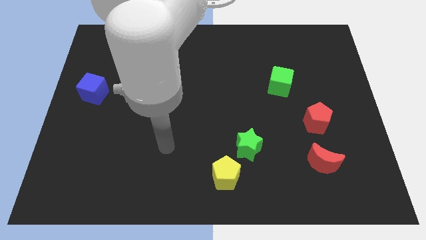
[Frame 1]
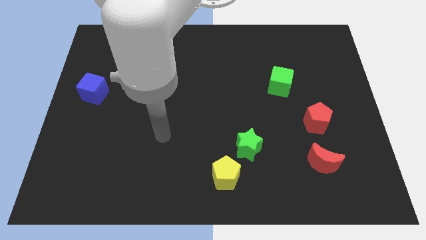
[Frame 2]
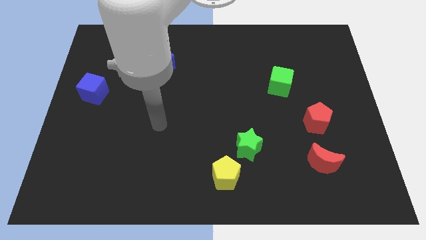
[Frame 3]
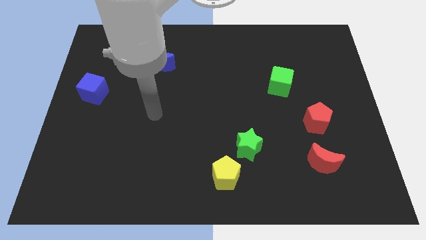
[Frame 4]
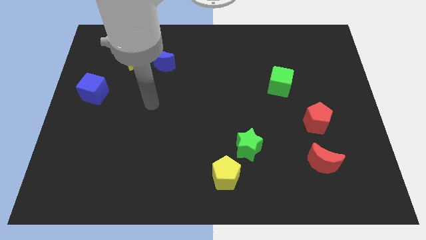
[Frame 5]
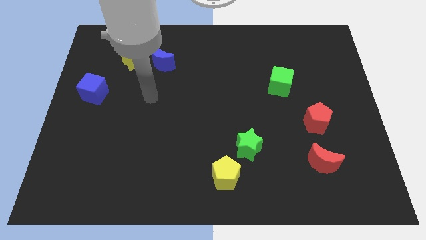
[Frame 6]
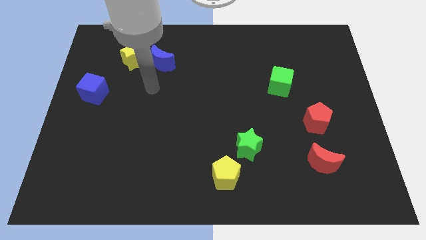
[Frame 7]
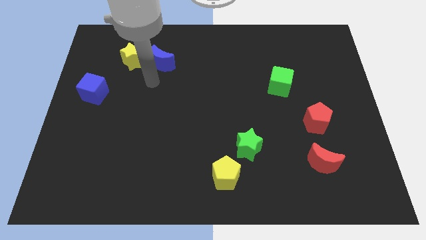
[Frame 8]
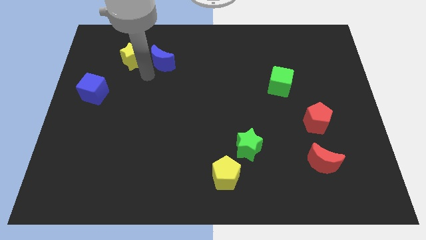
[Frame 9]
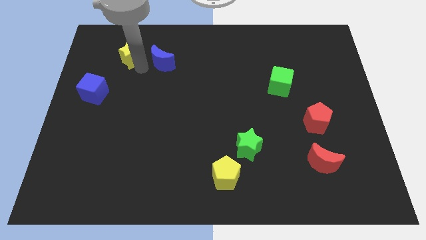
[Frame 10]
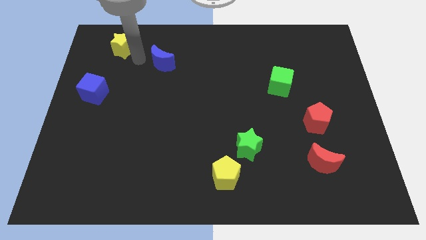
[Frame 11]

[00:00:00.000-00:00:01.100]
move the blue moon away from the yellow star

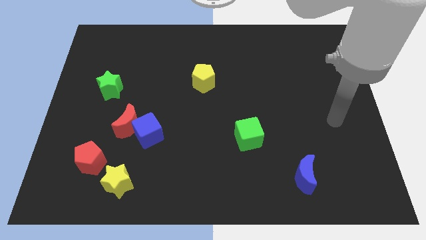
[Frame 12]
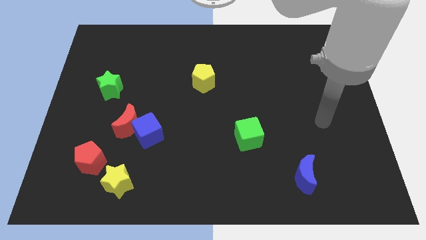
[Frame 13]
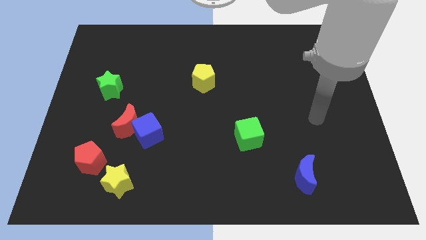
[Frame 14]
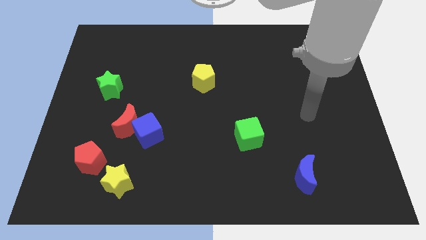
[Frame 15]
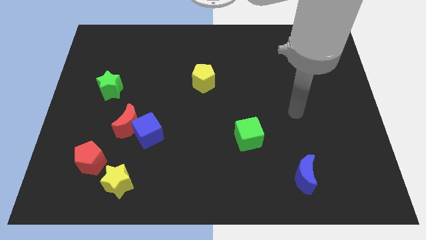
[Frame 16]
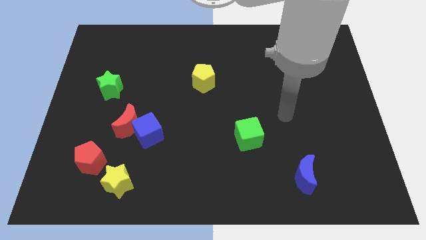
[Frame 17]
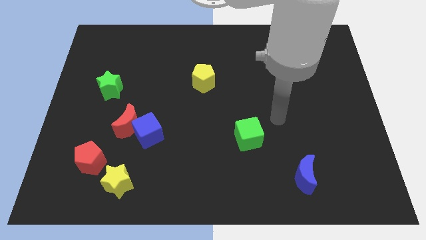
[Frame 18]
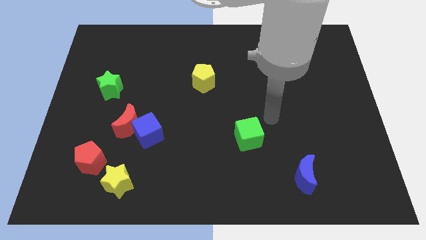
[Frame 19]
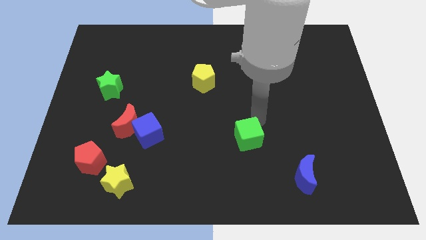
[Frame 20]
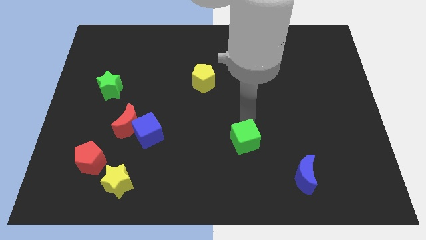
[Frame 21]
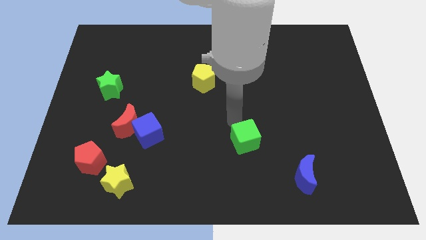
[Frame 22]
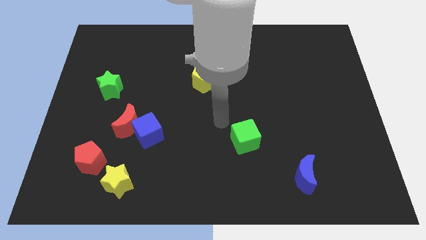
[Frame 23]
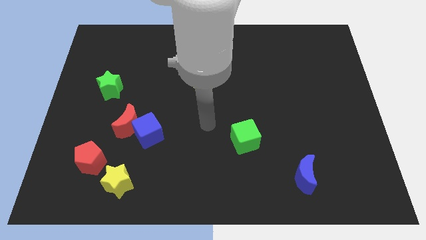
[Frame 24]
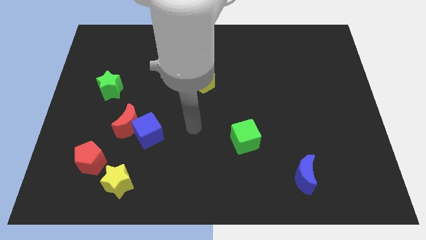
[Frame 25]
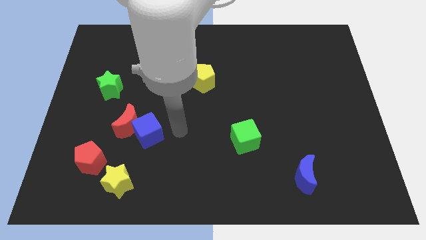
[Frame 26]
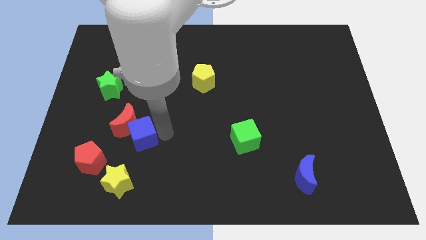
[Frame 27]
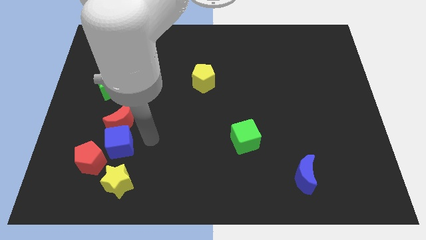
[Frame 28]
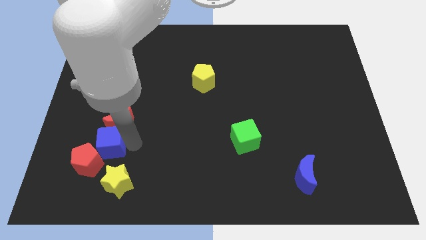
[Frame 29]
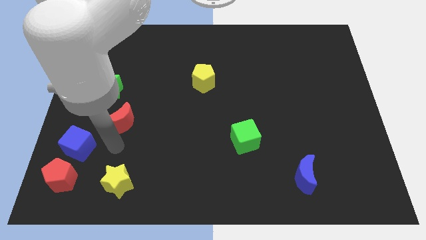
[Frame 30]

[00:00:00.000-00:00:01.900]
move the red moon away from the blue cube

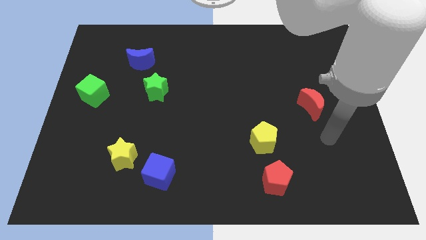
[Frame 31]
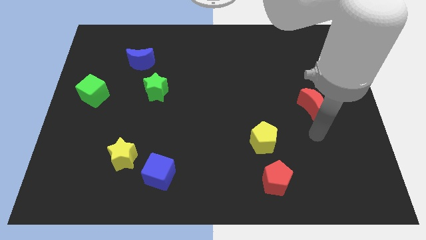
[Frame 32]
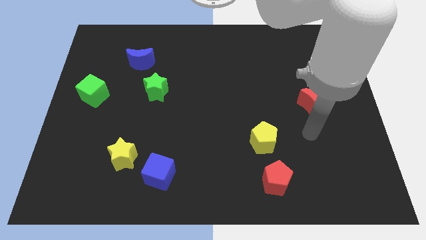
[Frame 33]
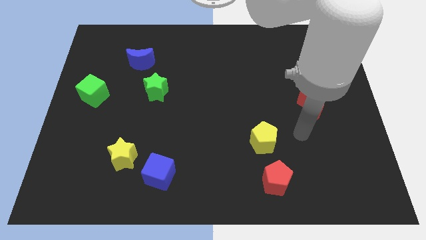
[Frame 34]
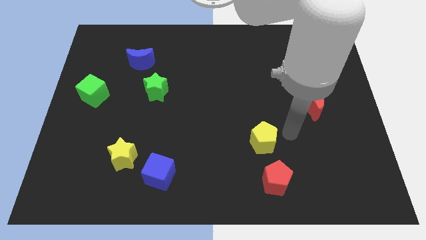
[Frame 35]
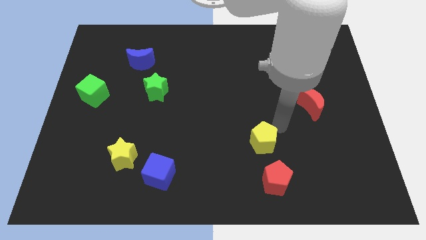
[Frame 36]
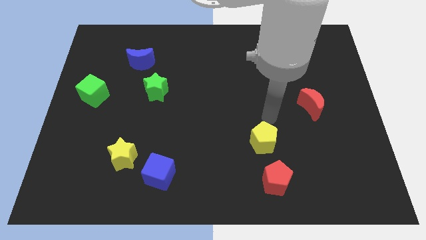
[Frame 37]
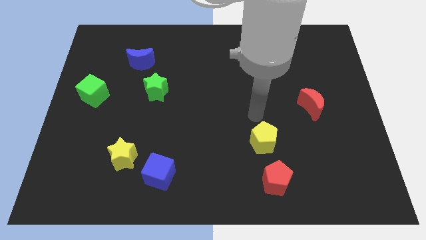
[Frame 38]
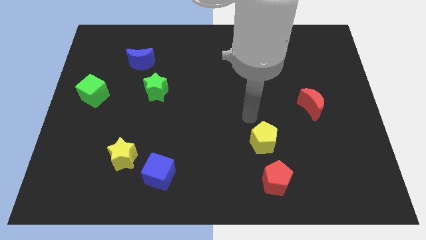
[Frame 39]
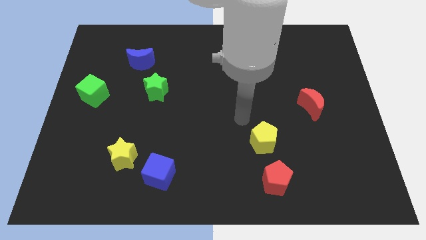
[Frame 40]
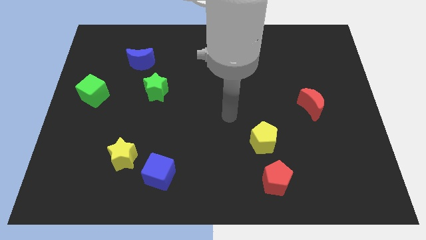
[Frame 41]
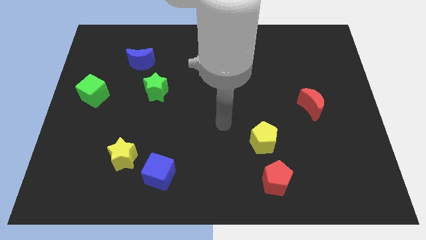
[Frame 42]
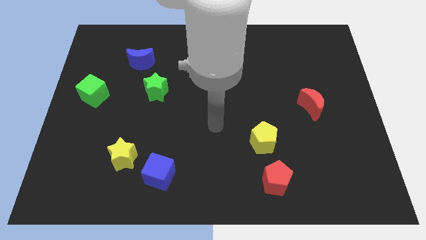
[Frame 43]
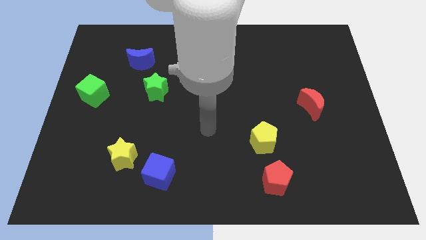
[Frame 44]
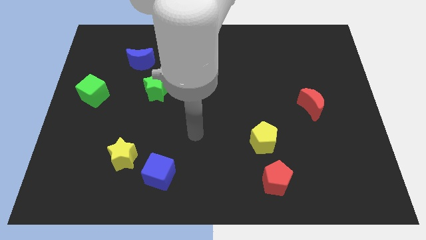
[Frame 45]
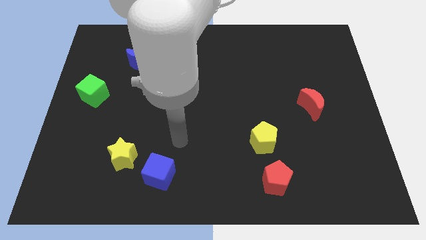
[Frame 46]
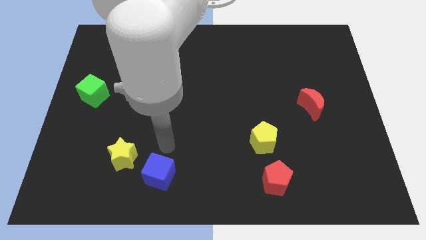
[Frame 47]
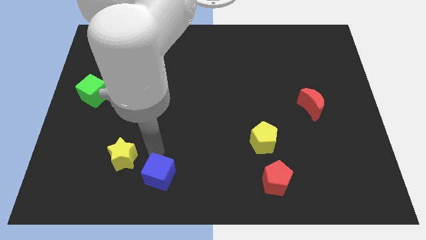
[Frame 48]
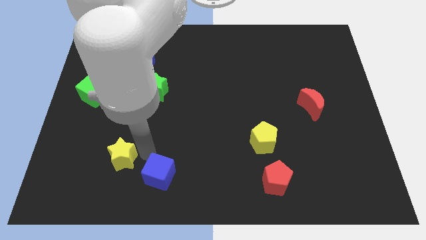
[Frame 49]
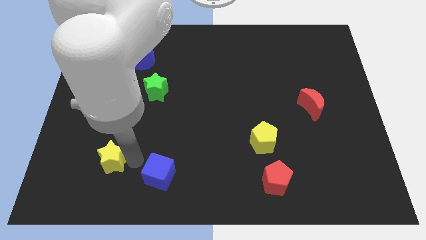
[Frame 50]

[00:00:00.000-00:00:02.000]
move the blue cube away from the yellow star

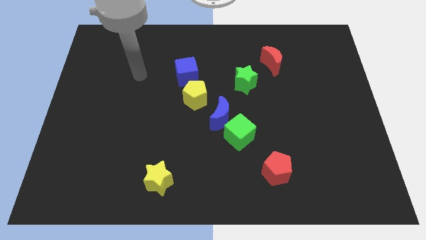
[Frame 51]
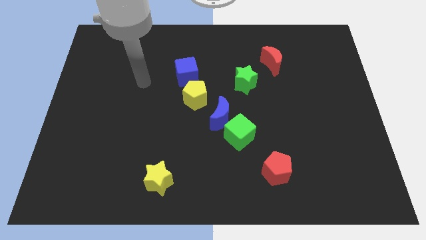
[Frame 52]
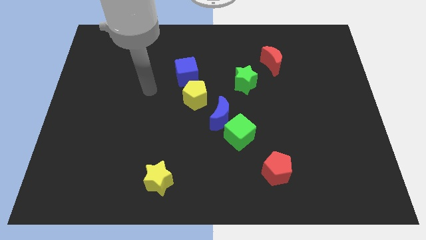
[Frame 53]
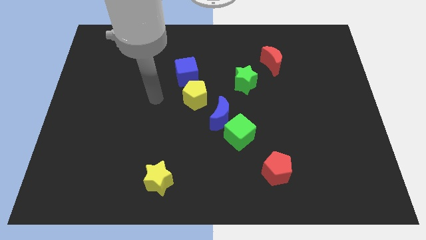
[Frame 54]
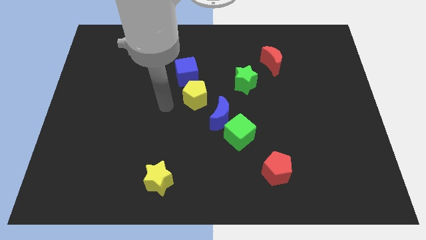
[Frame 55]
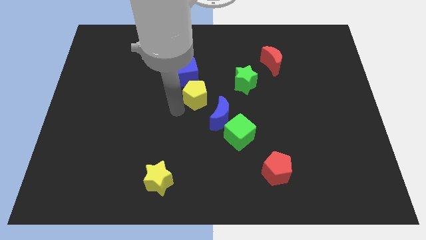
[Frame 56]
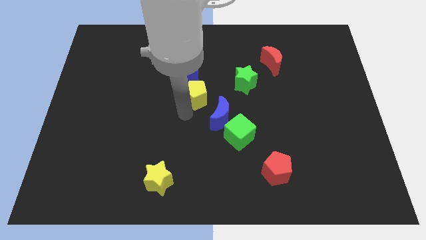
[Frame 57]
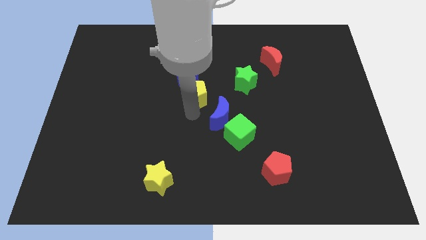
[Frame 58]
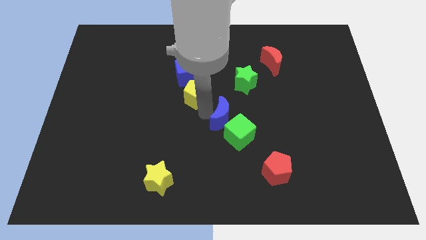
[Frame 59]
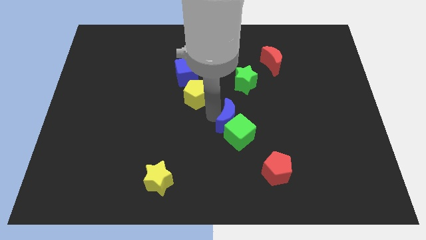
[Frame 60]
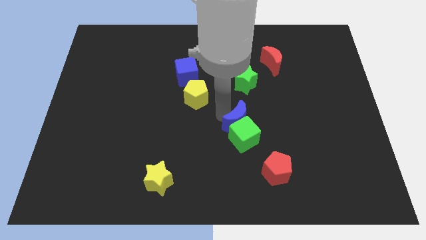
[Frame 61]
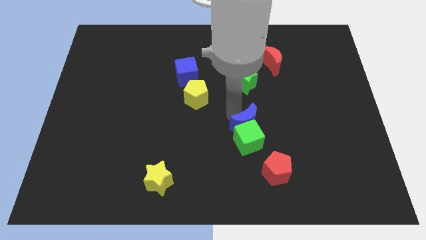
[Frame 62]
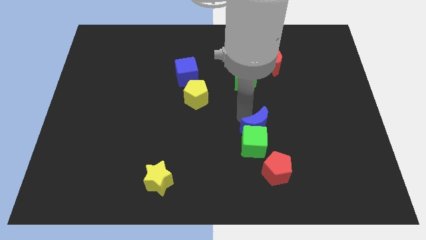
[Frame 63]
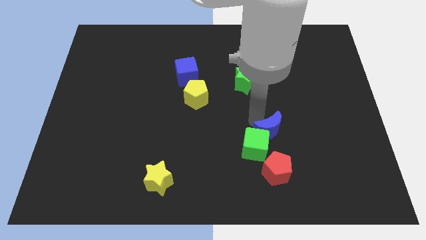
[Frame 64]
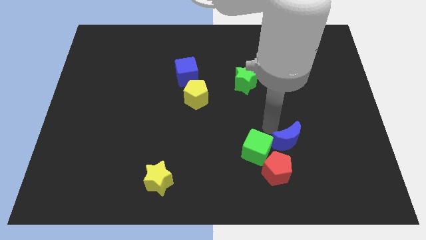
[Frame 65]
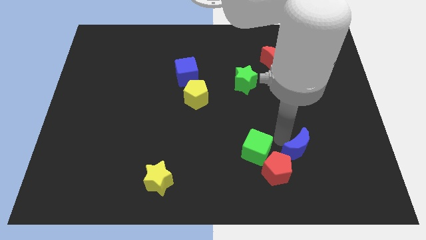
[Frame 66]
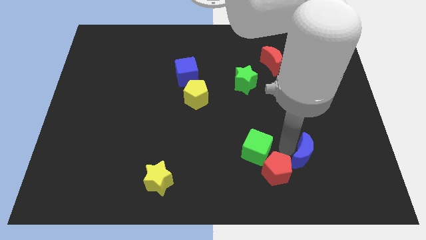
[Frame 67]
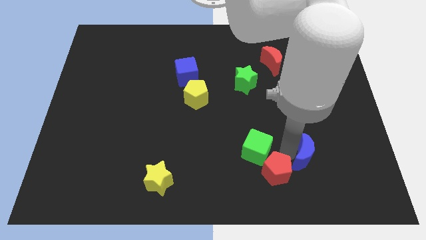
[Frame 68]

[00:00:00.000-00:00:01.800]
pull the green cube apart from the blue moon

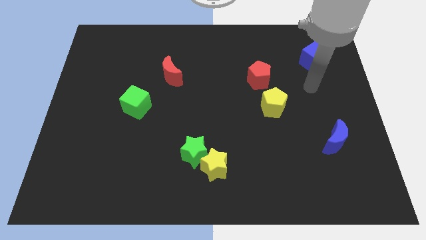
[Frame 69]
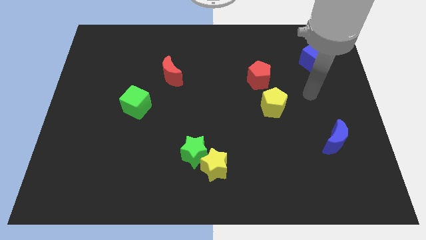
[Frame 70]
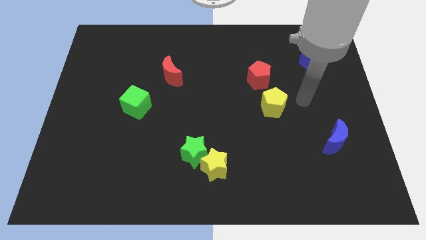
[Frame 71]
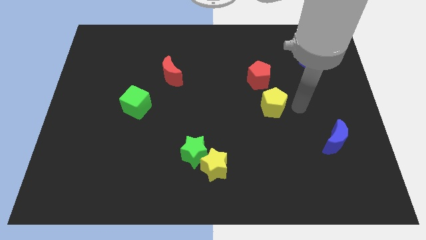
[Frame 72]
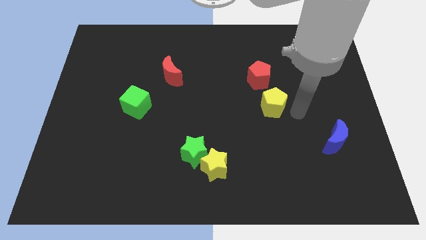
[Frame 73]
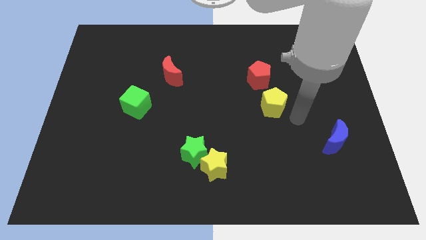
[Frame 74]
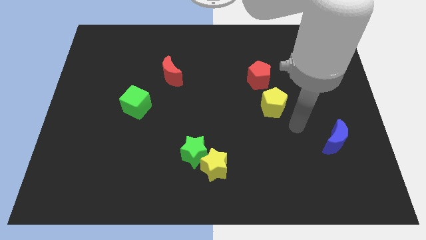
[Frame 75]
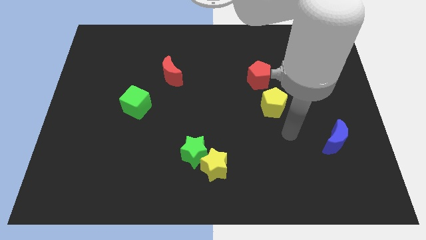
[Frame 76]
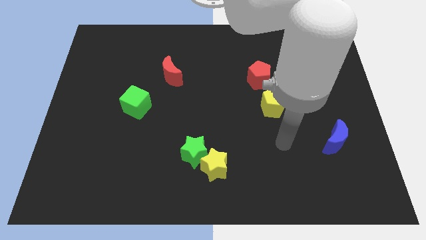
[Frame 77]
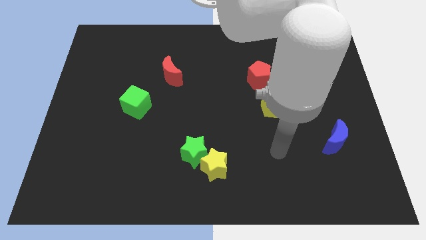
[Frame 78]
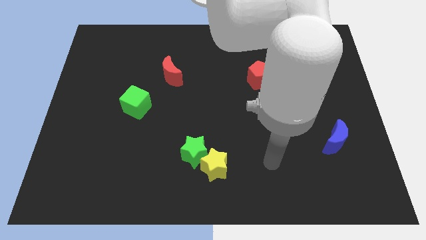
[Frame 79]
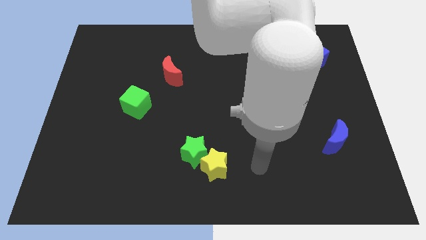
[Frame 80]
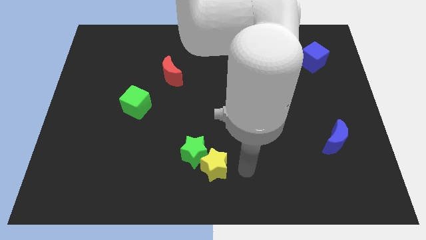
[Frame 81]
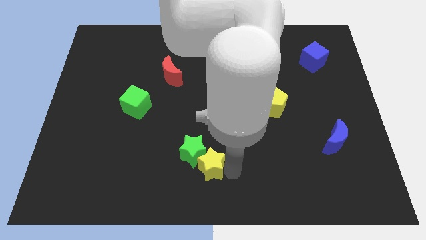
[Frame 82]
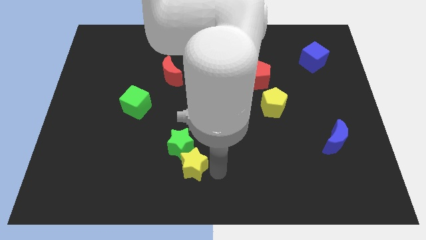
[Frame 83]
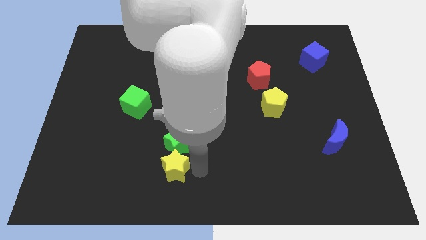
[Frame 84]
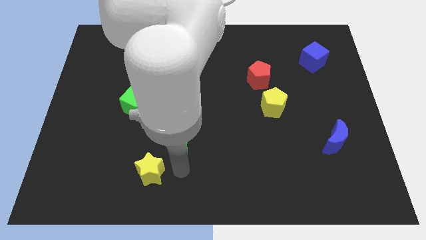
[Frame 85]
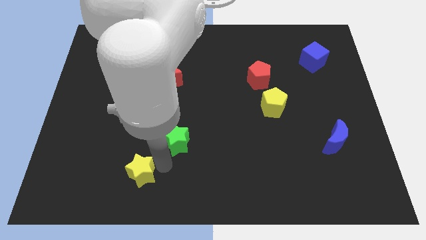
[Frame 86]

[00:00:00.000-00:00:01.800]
separate the green star from the yellow star

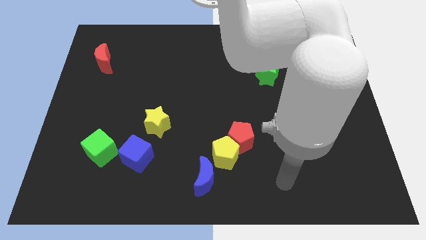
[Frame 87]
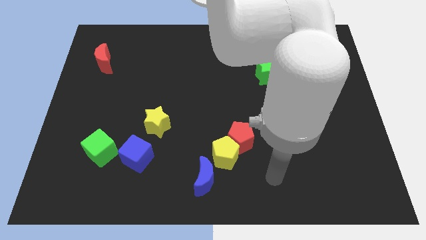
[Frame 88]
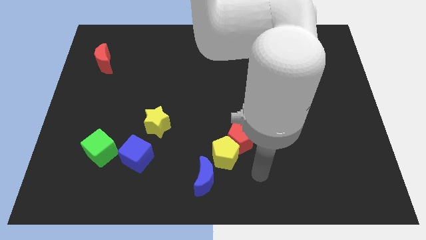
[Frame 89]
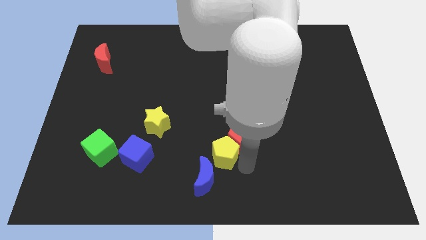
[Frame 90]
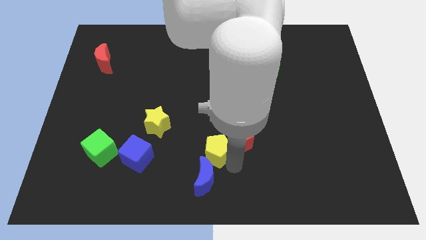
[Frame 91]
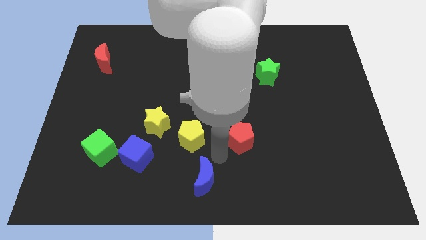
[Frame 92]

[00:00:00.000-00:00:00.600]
move the red pentagon away from the yellow pentagon
